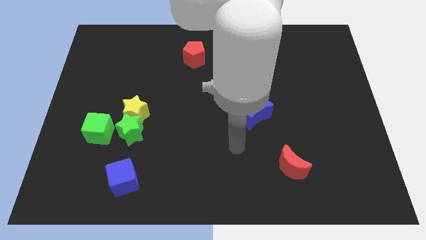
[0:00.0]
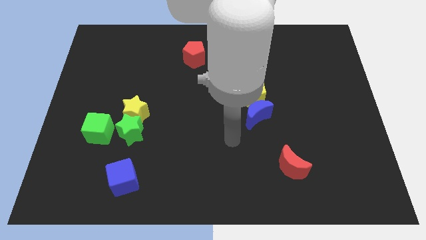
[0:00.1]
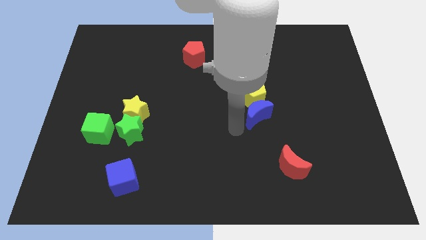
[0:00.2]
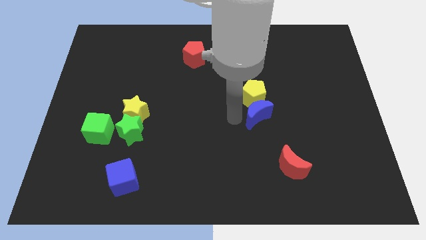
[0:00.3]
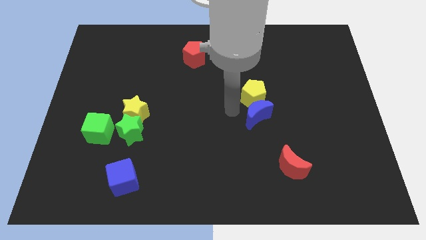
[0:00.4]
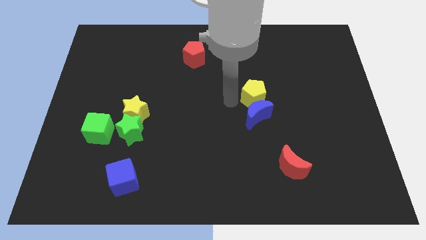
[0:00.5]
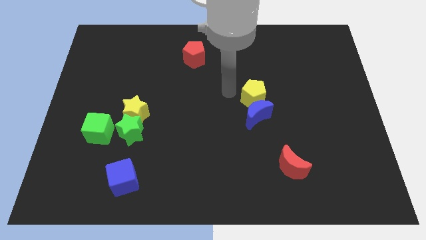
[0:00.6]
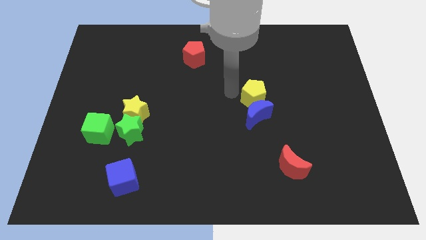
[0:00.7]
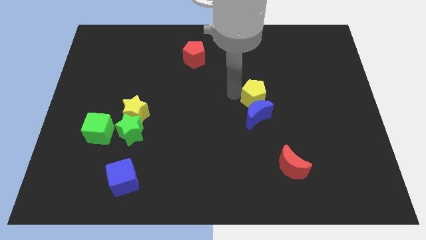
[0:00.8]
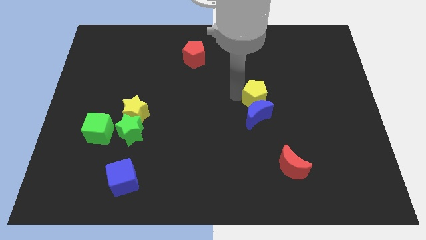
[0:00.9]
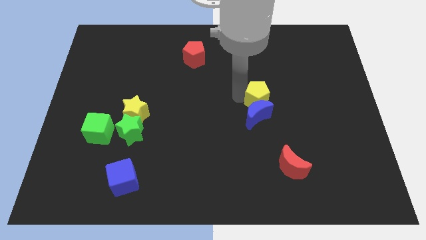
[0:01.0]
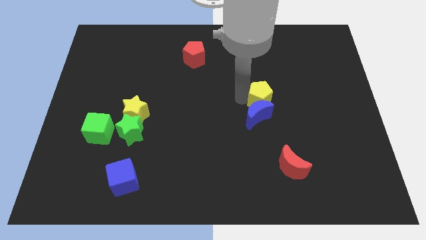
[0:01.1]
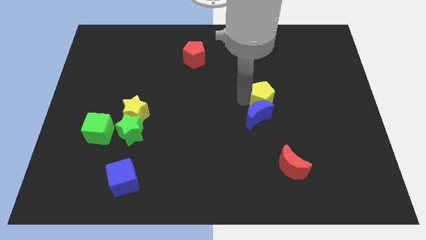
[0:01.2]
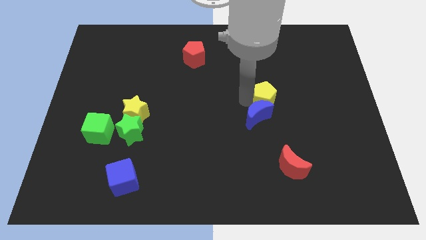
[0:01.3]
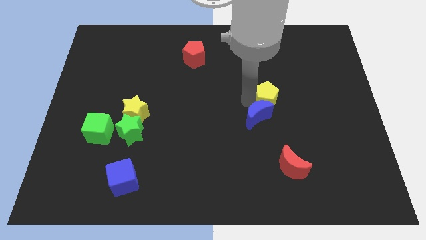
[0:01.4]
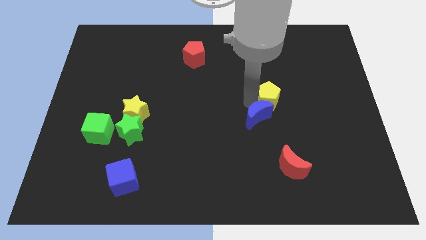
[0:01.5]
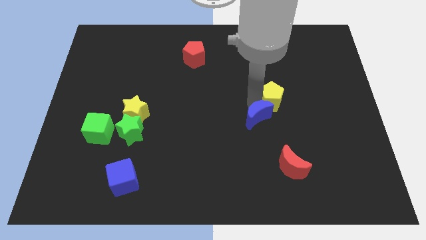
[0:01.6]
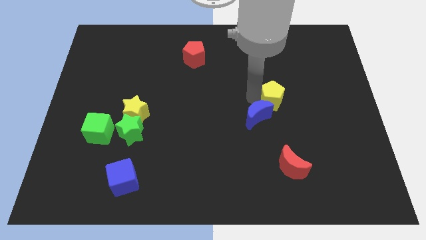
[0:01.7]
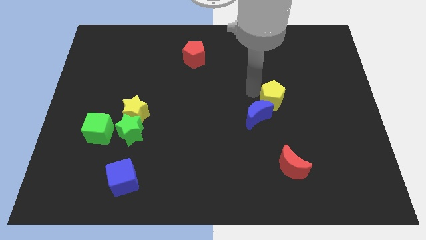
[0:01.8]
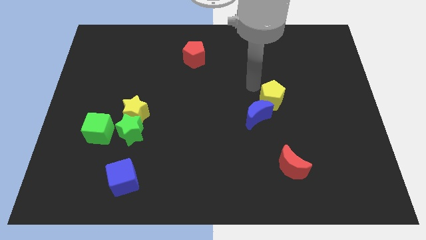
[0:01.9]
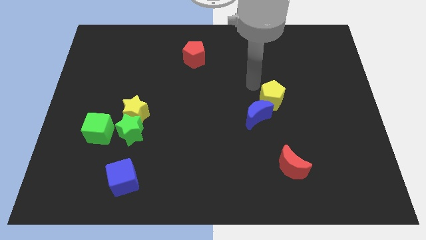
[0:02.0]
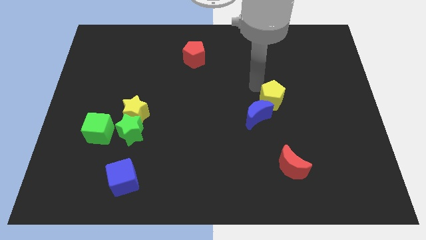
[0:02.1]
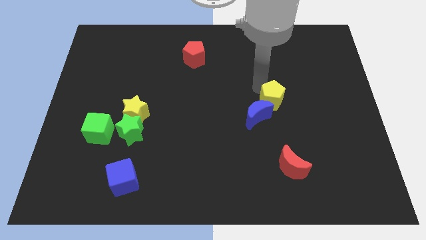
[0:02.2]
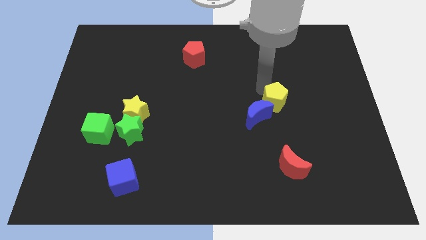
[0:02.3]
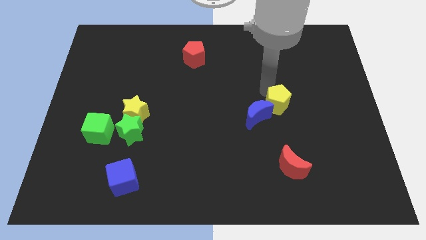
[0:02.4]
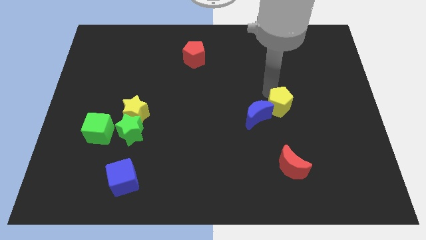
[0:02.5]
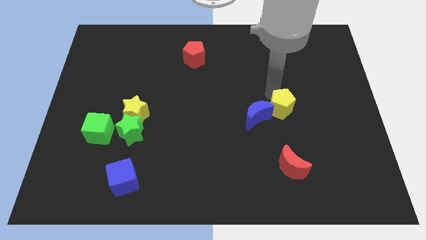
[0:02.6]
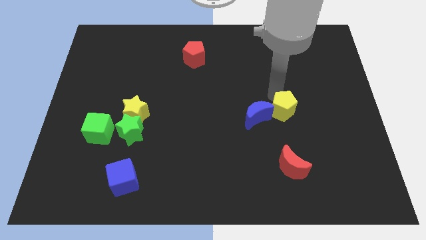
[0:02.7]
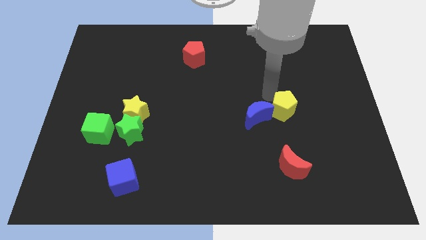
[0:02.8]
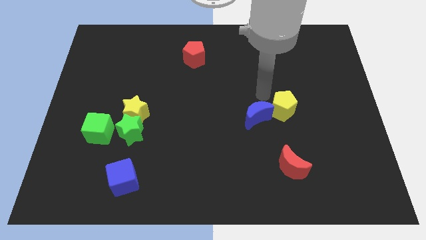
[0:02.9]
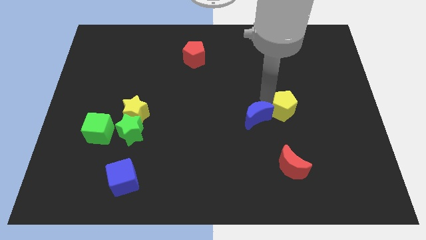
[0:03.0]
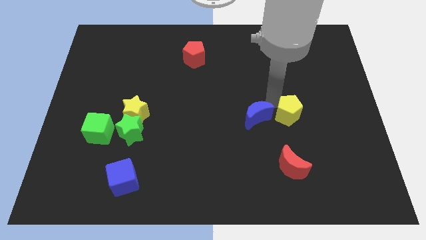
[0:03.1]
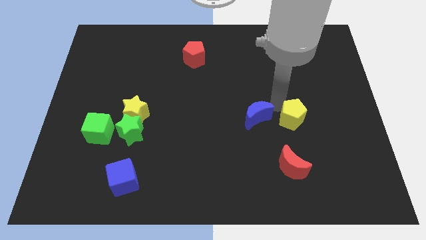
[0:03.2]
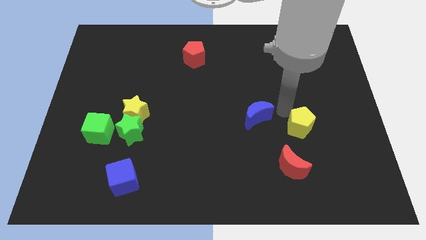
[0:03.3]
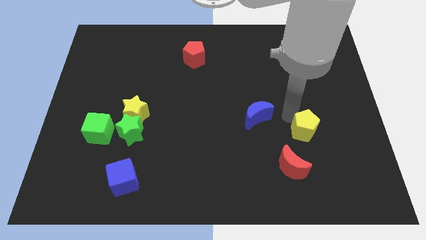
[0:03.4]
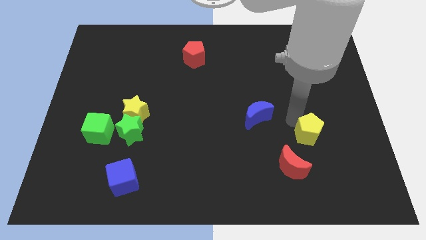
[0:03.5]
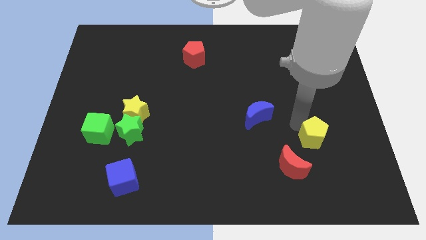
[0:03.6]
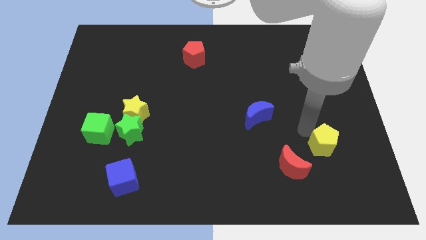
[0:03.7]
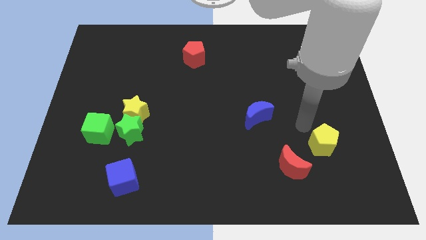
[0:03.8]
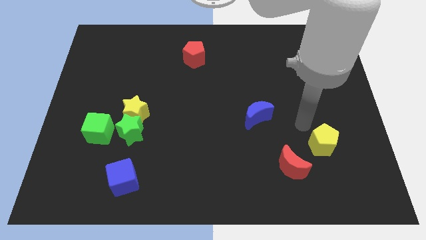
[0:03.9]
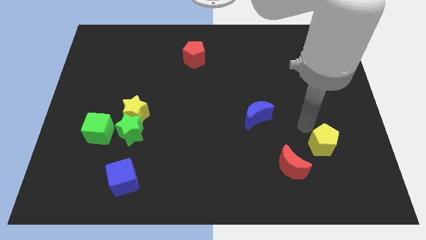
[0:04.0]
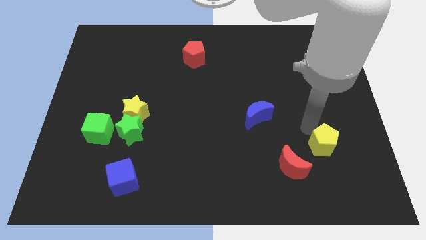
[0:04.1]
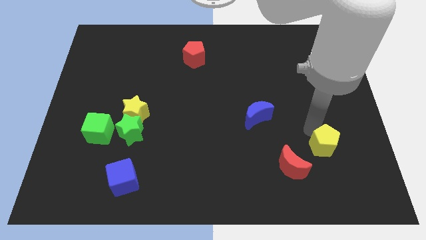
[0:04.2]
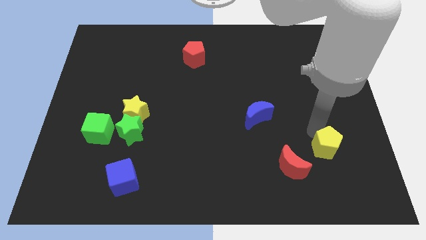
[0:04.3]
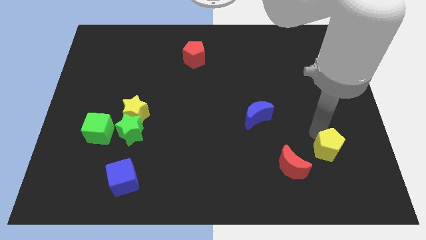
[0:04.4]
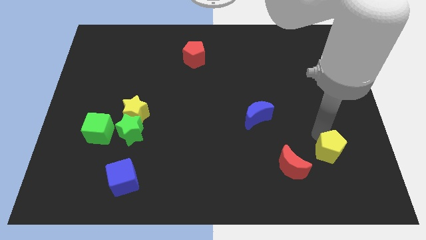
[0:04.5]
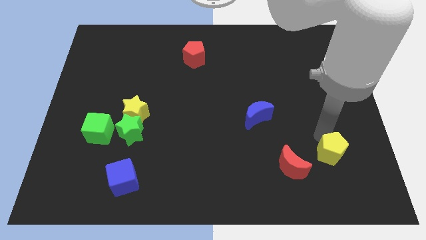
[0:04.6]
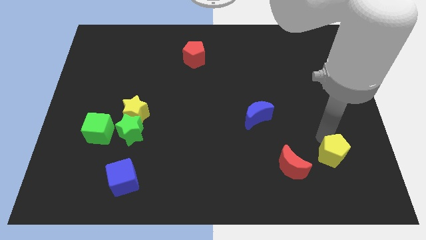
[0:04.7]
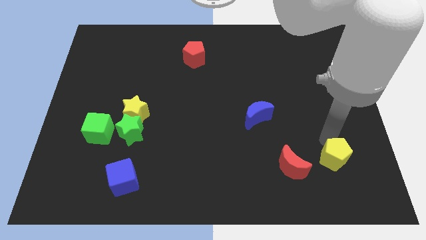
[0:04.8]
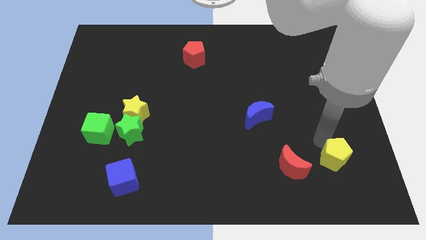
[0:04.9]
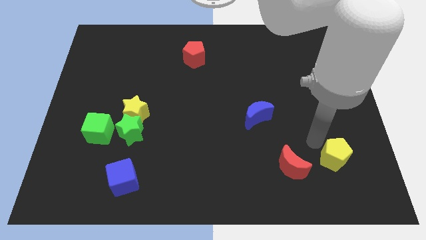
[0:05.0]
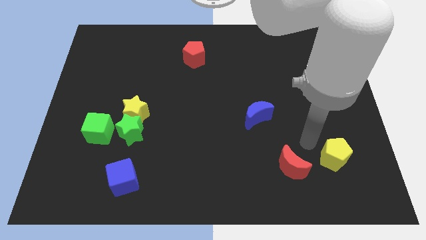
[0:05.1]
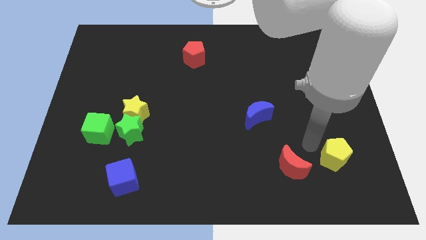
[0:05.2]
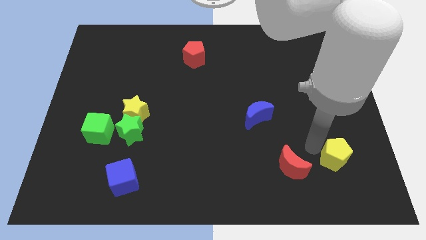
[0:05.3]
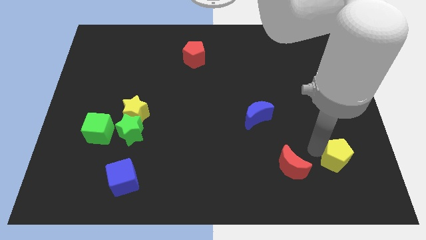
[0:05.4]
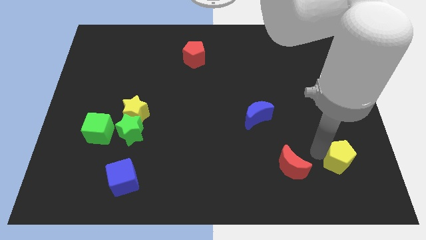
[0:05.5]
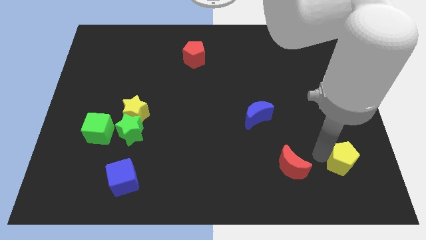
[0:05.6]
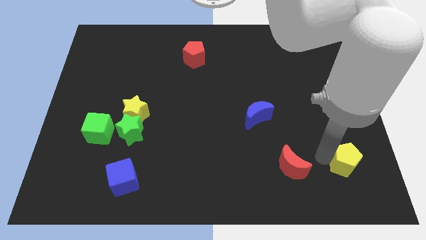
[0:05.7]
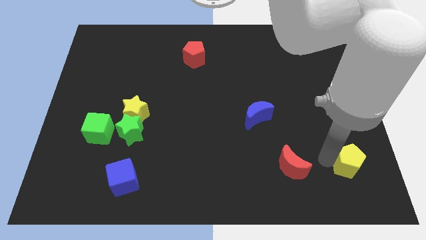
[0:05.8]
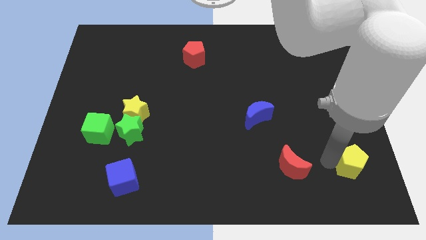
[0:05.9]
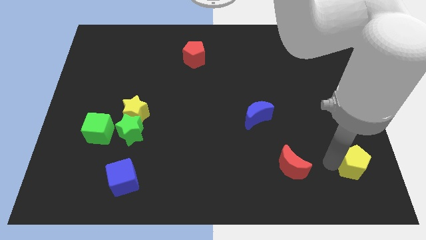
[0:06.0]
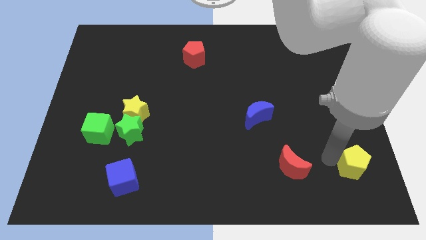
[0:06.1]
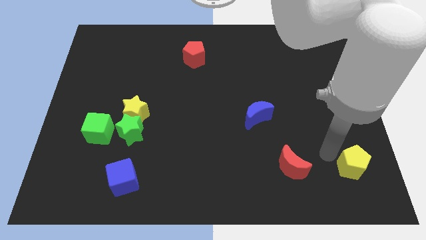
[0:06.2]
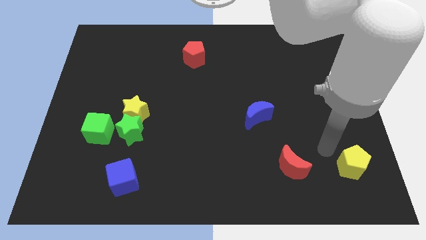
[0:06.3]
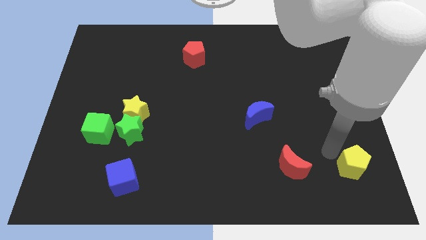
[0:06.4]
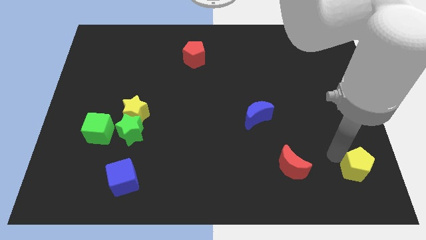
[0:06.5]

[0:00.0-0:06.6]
slide the yellow pentagon to the bottom right

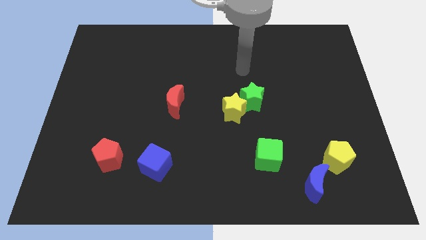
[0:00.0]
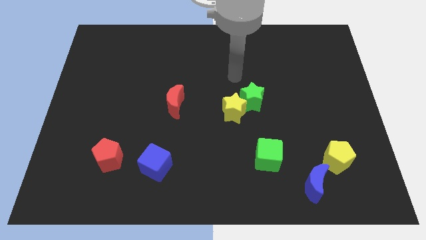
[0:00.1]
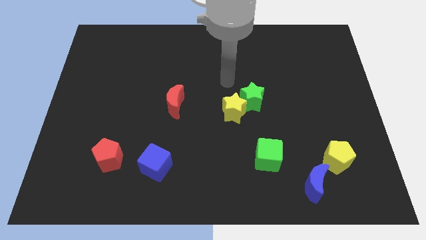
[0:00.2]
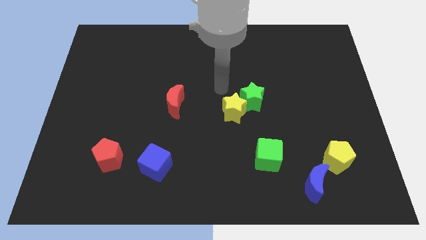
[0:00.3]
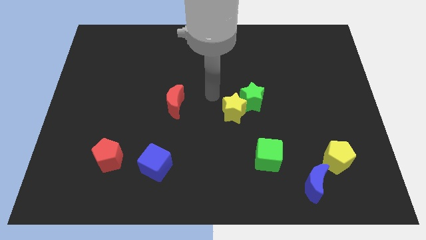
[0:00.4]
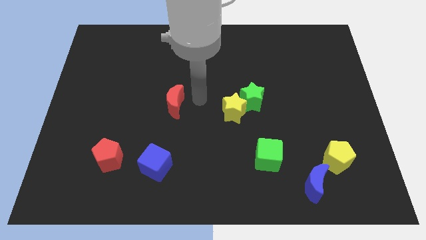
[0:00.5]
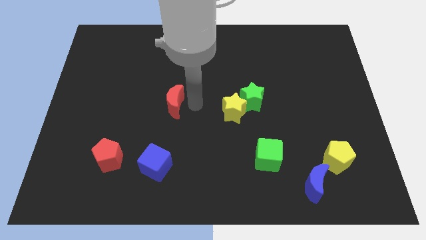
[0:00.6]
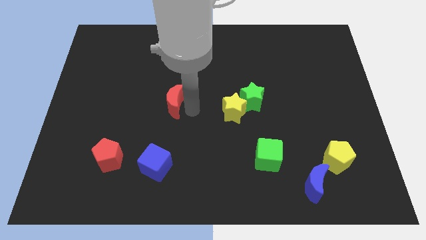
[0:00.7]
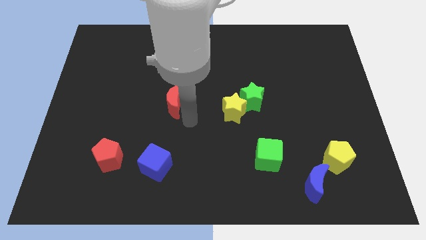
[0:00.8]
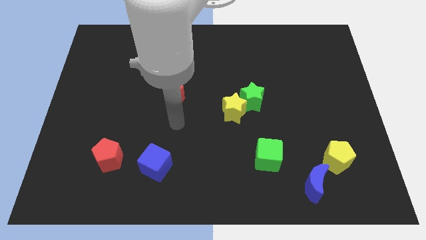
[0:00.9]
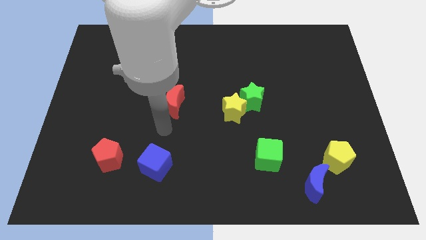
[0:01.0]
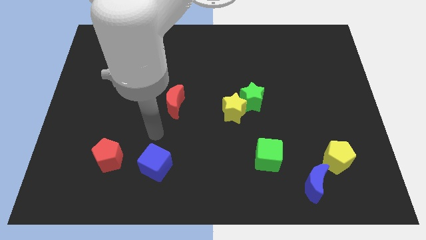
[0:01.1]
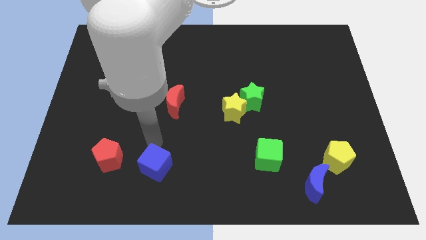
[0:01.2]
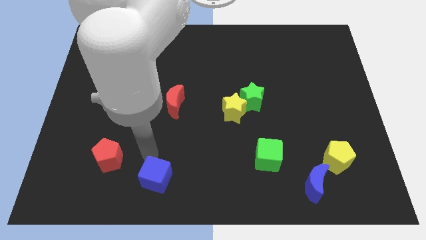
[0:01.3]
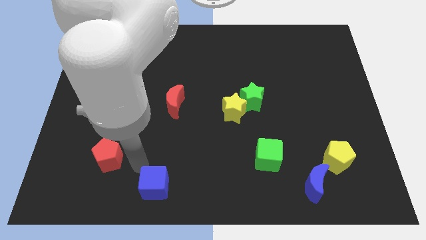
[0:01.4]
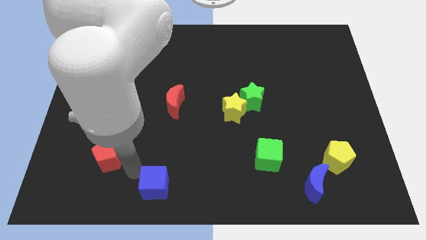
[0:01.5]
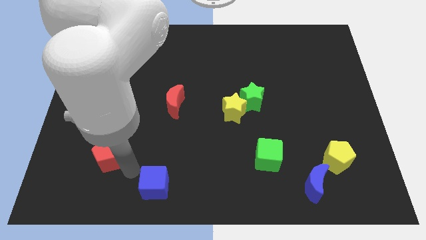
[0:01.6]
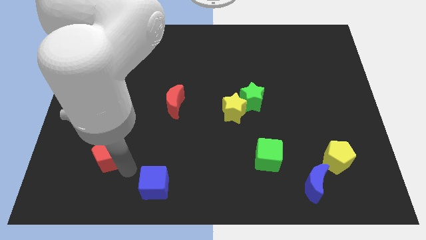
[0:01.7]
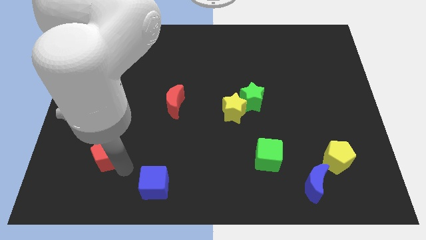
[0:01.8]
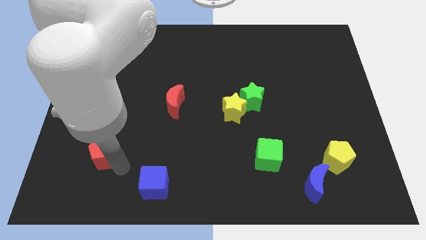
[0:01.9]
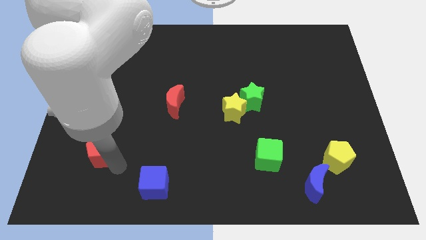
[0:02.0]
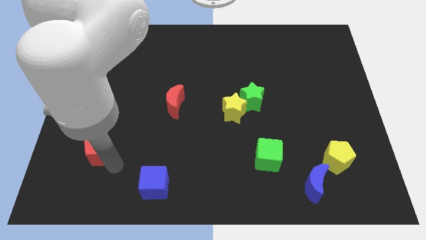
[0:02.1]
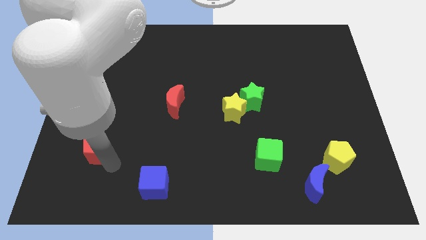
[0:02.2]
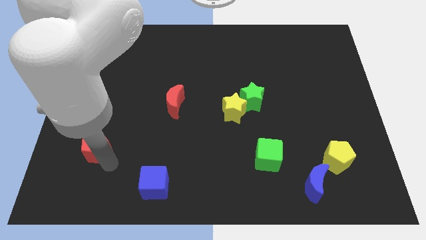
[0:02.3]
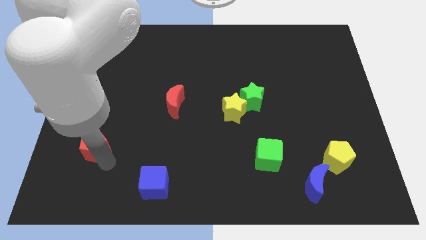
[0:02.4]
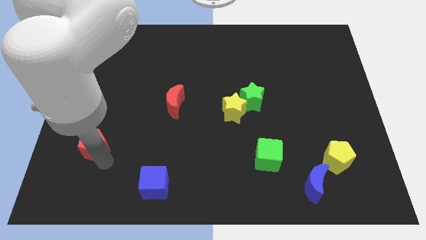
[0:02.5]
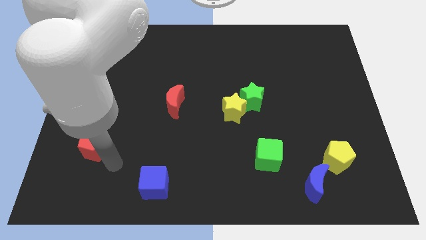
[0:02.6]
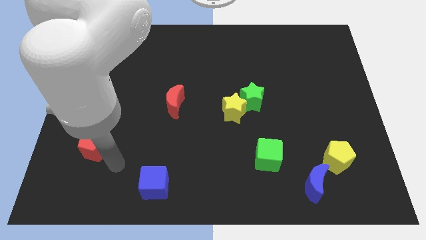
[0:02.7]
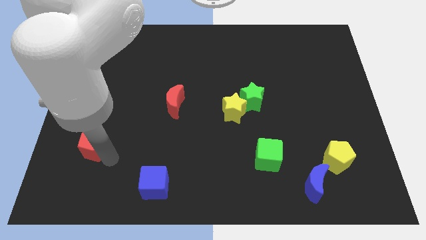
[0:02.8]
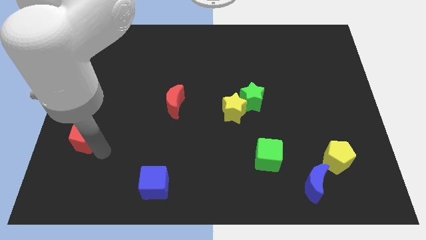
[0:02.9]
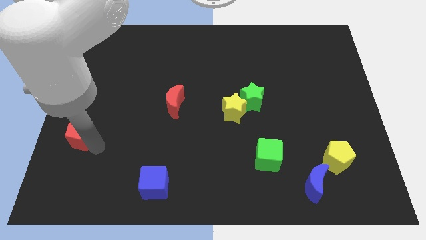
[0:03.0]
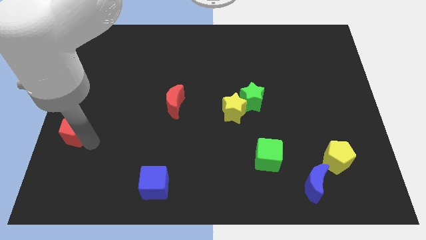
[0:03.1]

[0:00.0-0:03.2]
put the red pentagon to the center left
